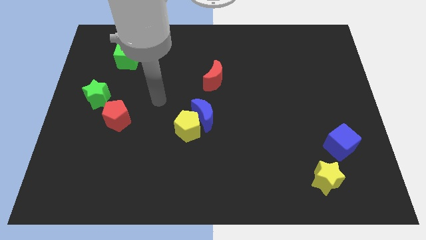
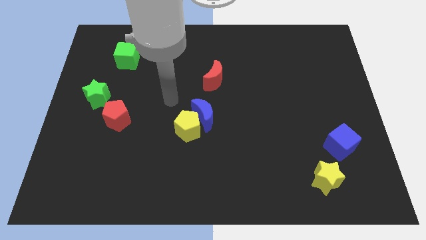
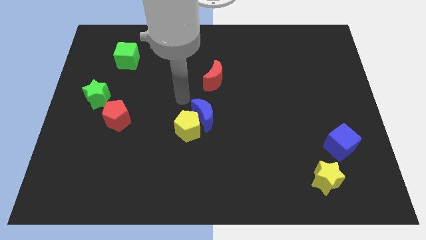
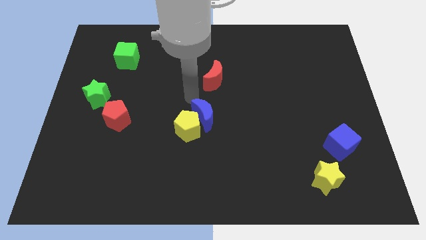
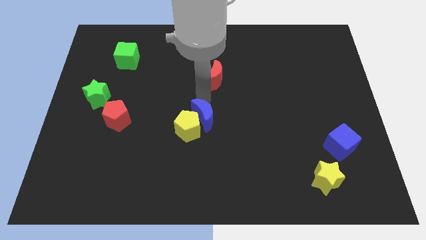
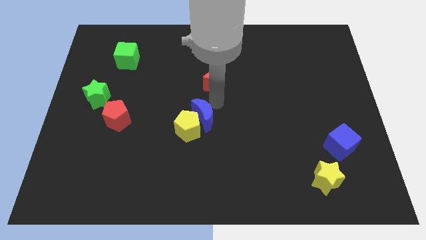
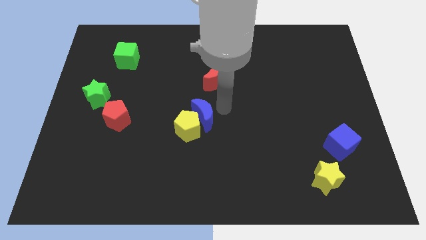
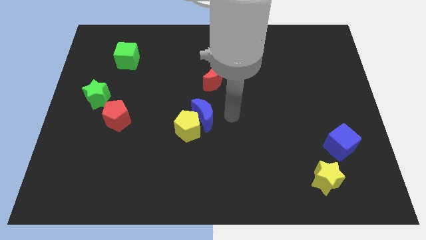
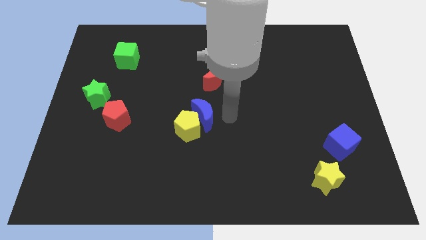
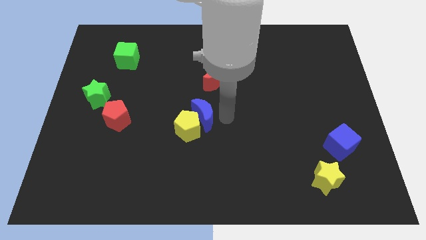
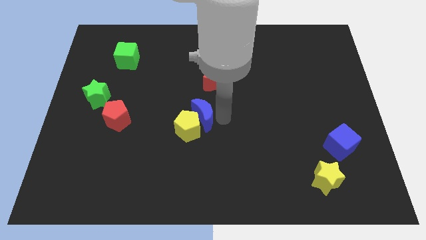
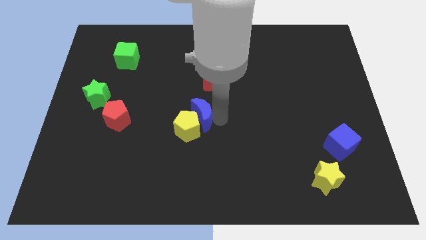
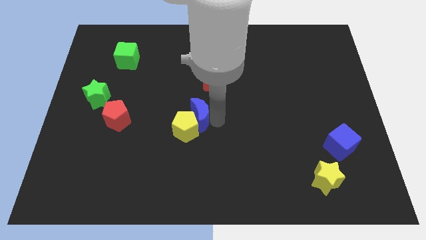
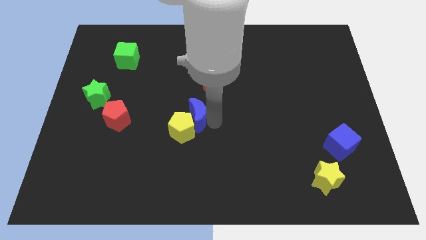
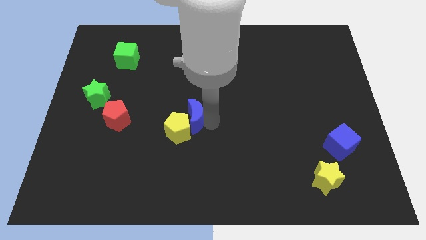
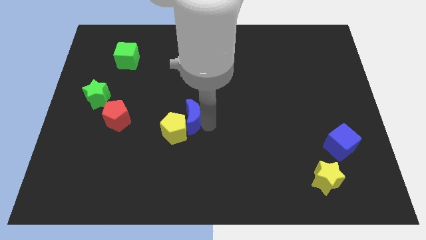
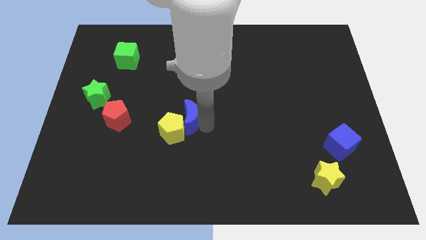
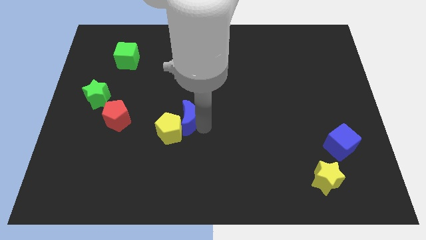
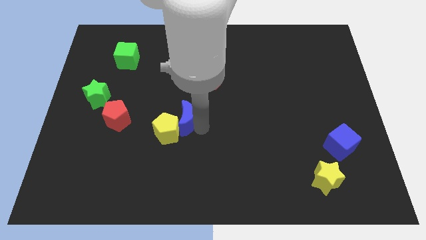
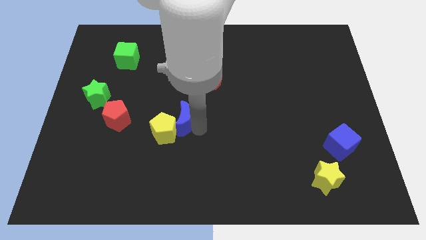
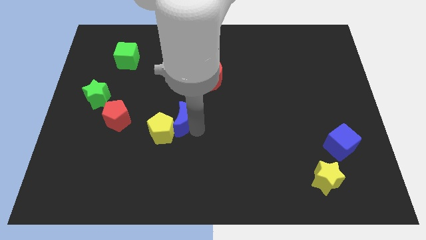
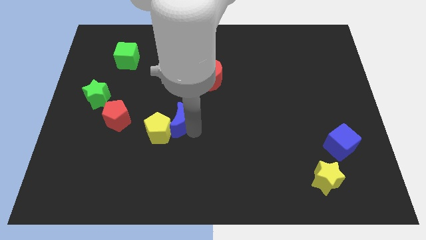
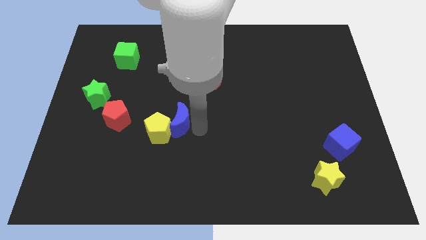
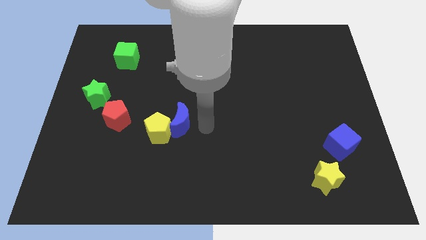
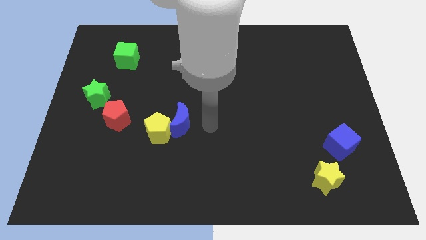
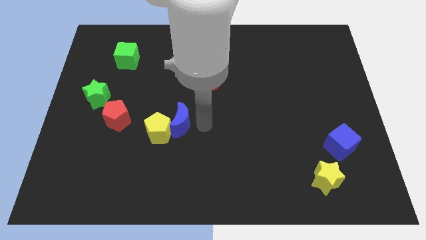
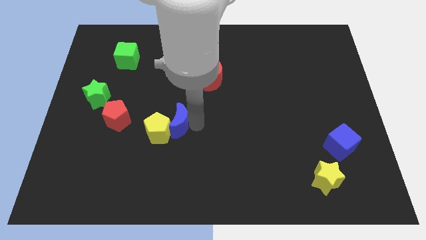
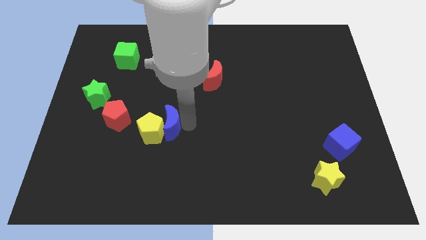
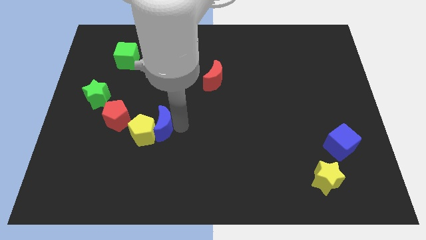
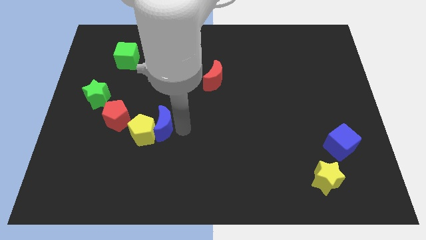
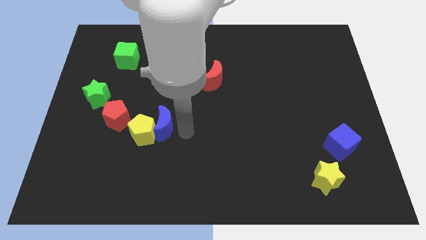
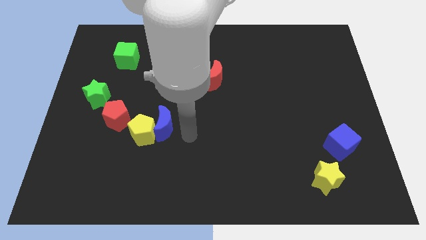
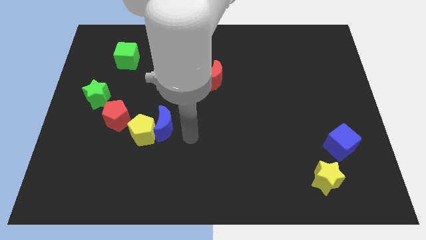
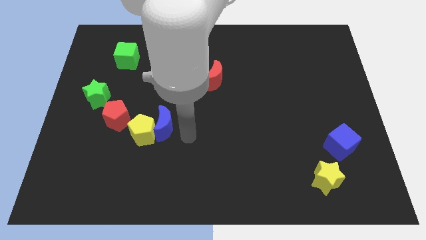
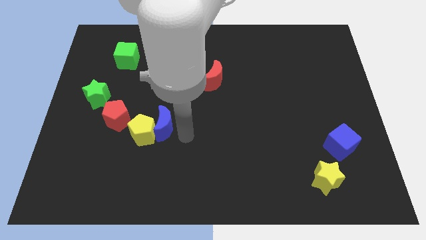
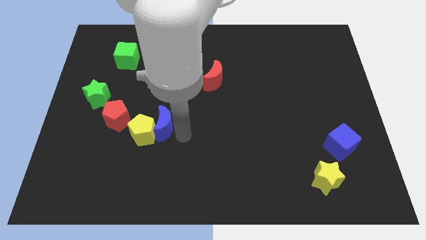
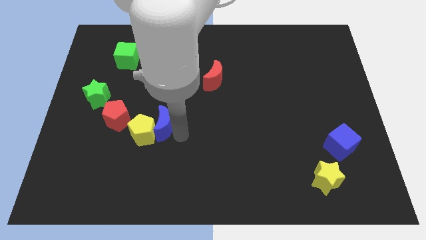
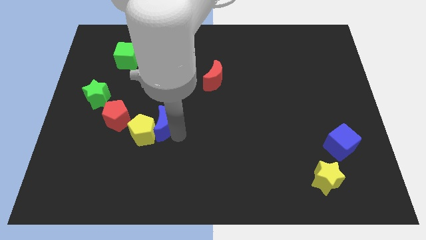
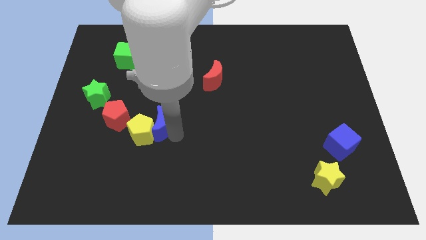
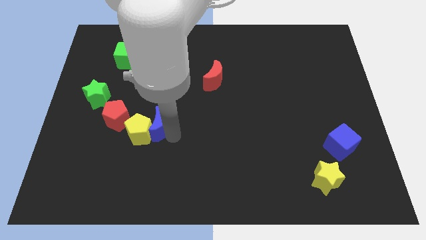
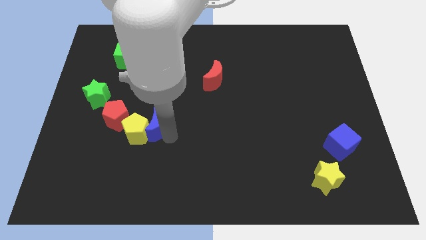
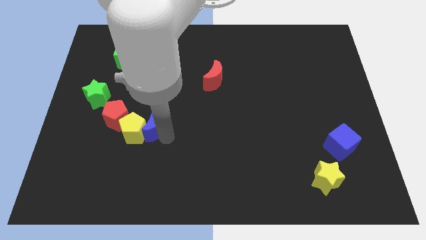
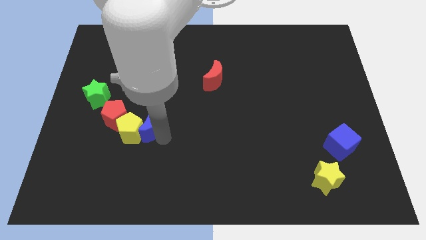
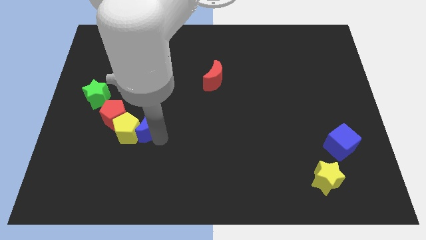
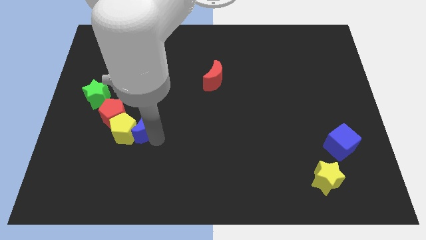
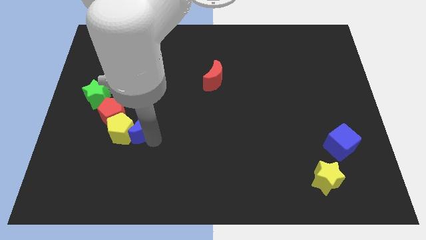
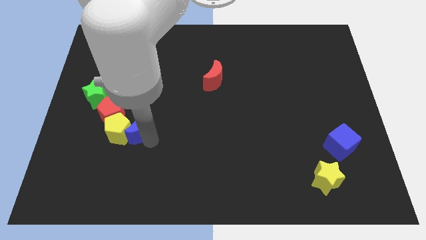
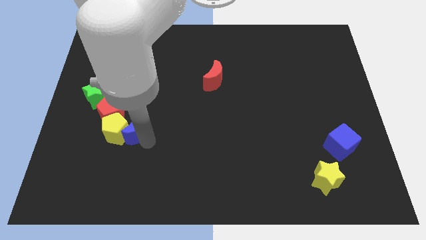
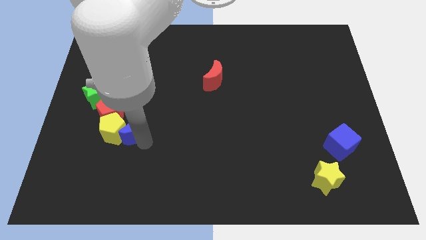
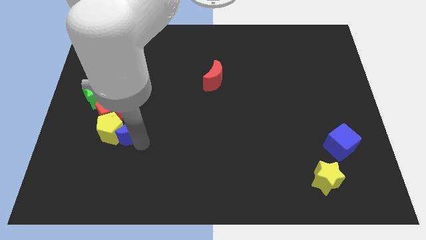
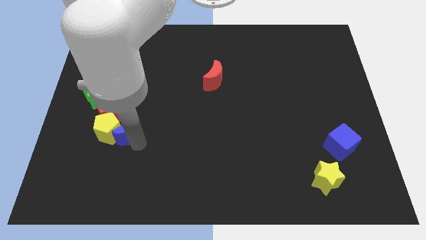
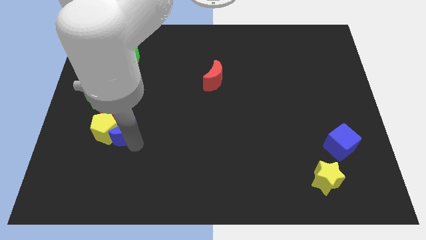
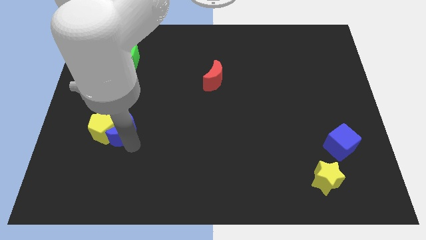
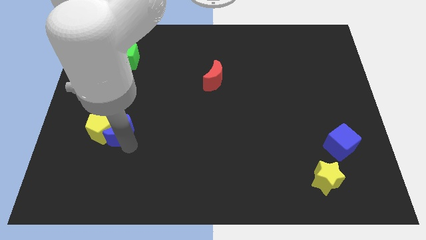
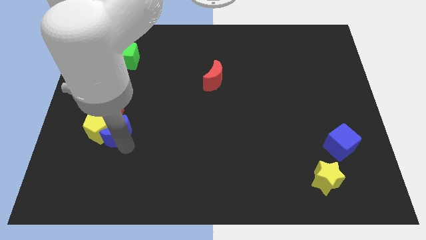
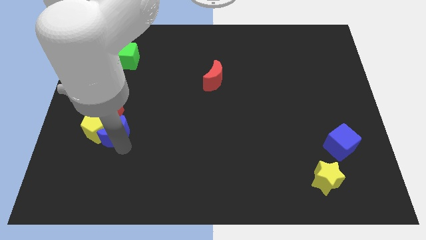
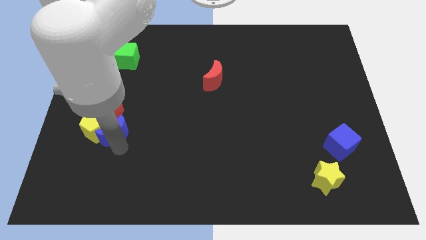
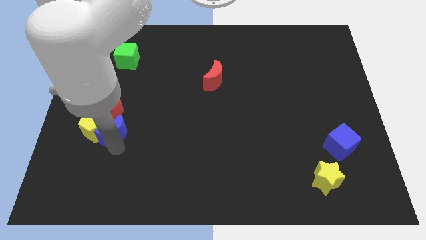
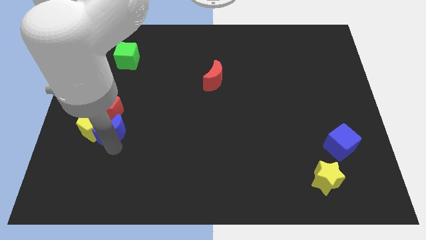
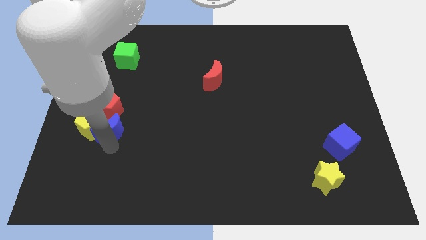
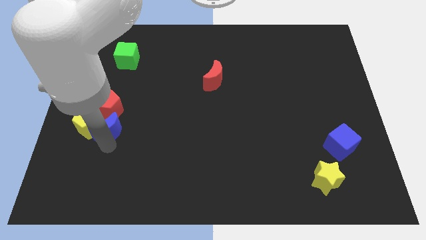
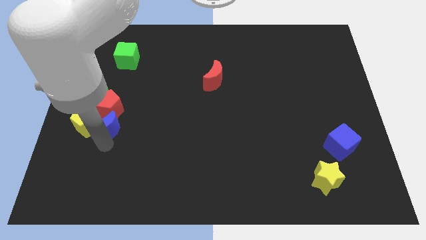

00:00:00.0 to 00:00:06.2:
put the blue moon close to the red pentagon

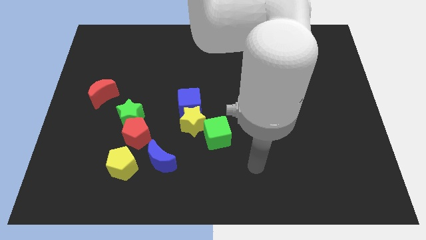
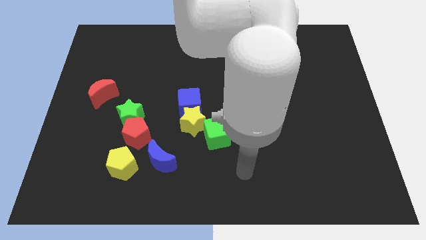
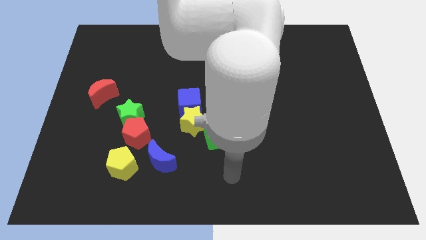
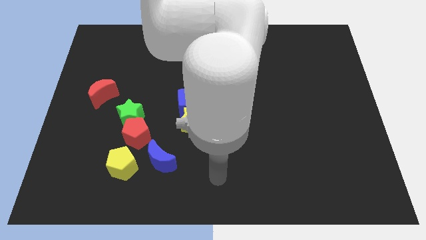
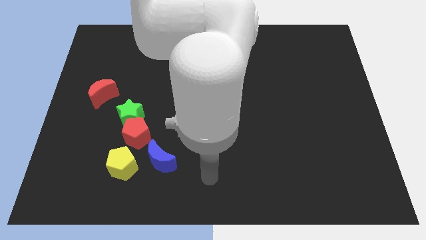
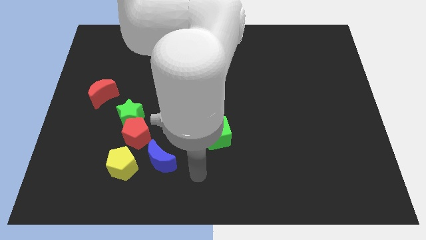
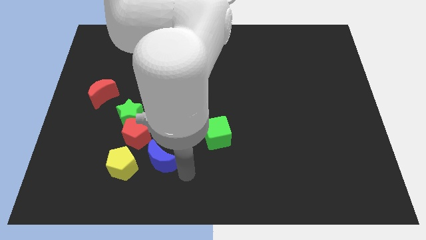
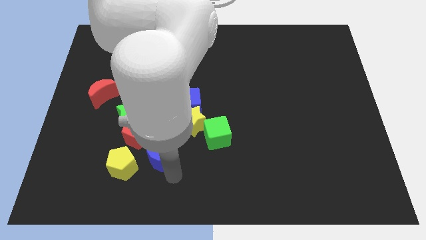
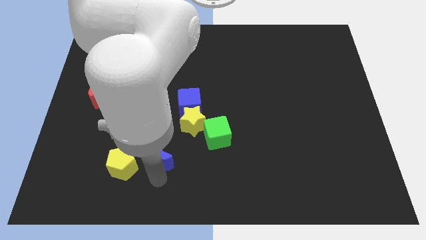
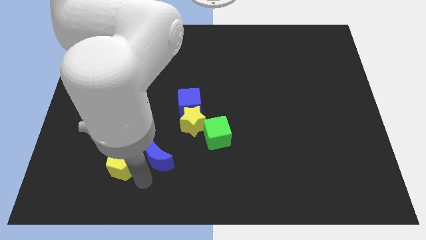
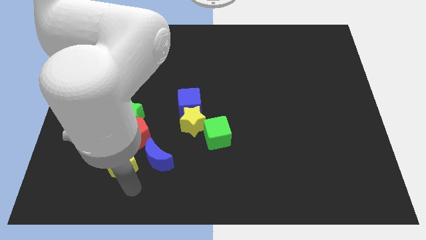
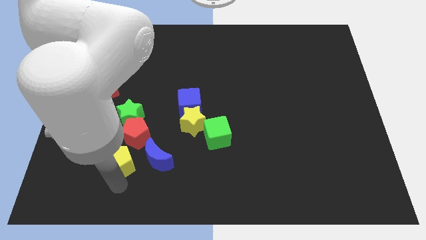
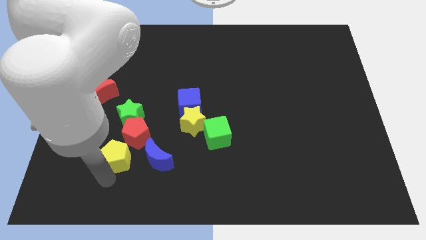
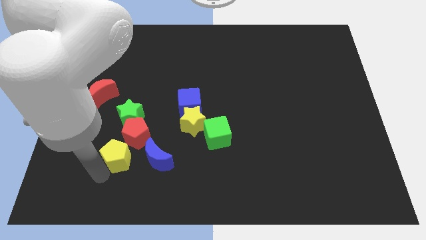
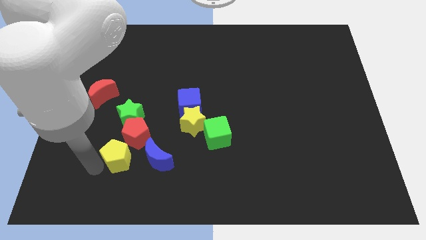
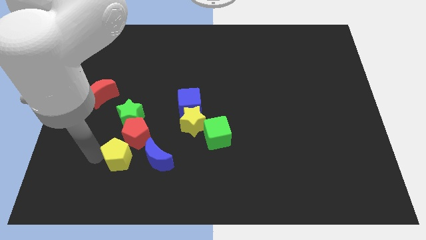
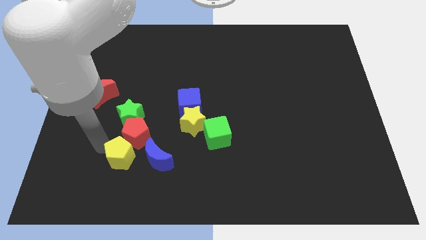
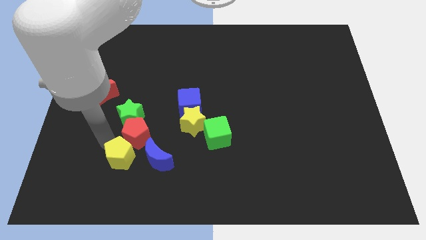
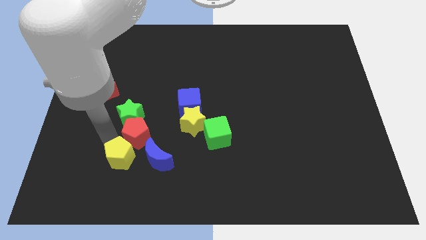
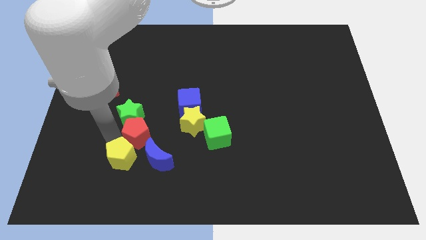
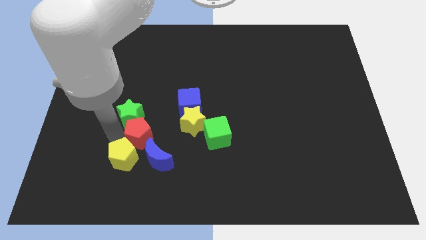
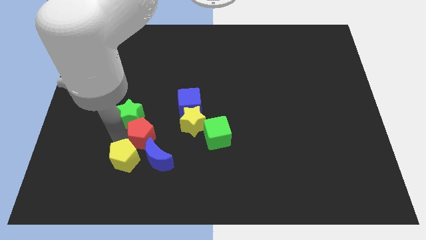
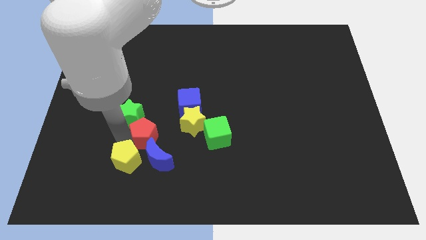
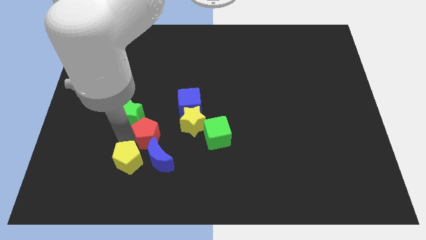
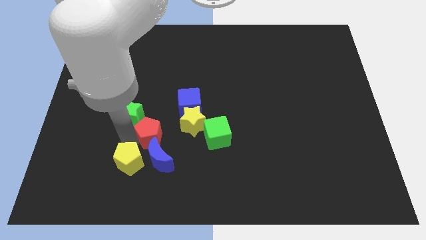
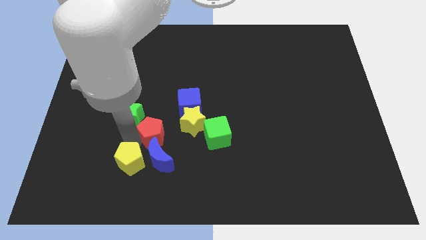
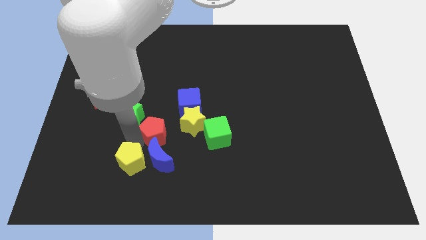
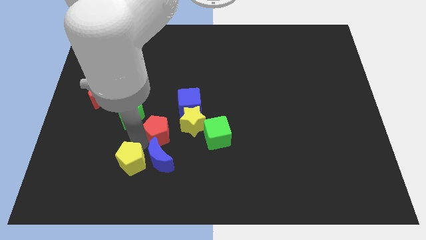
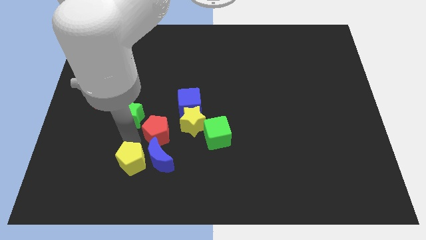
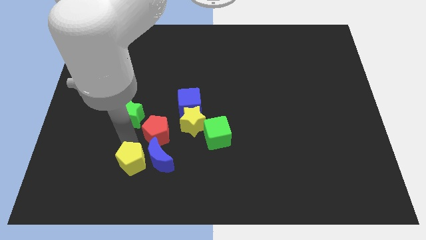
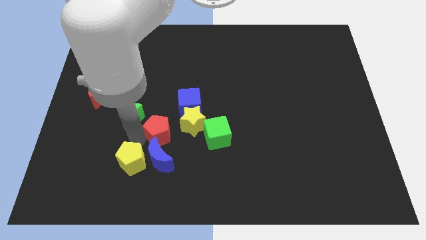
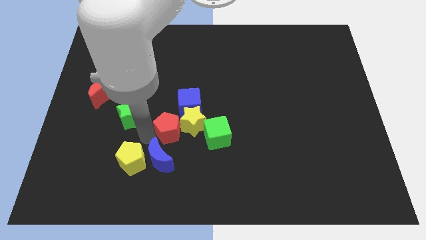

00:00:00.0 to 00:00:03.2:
push the red pentagon to the yellow star
